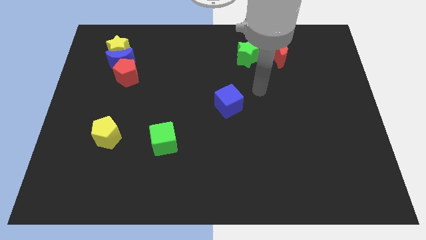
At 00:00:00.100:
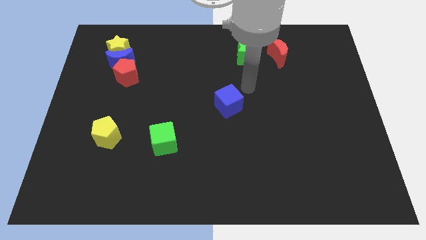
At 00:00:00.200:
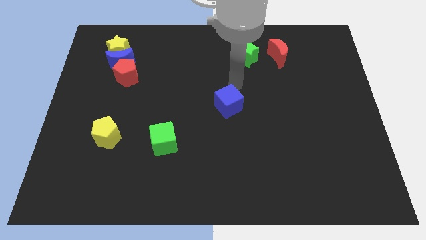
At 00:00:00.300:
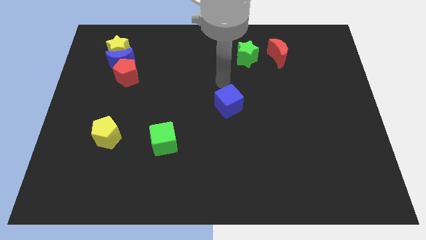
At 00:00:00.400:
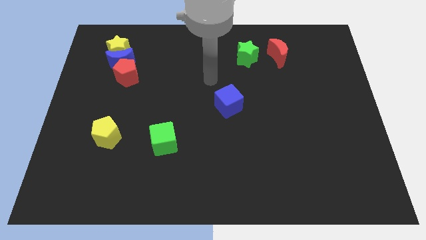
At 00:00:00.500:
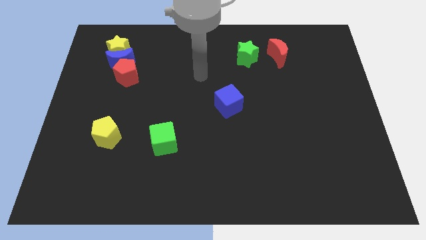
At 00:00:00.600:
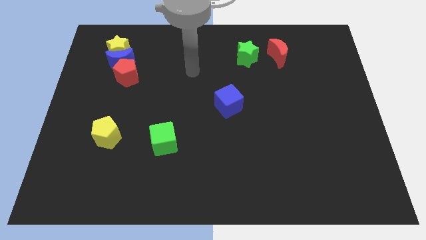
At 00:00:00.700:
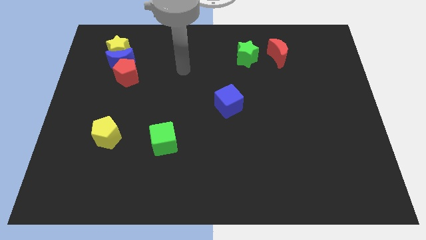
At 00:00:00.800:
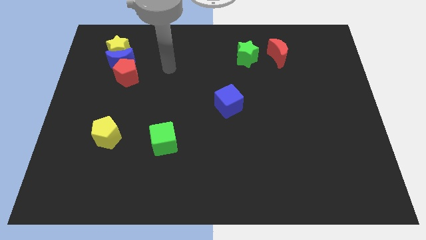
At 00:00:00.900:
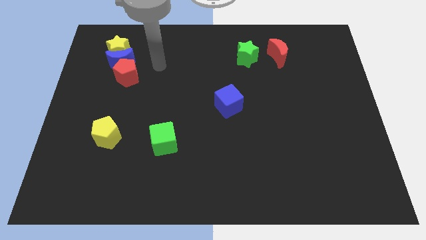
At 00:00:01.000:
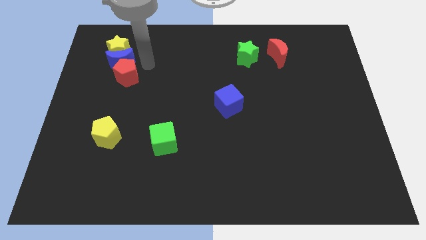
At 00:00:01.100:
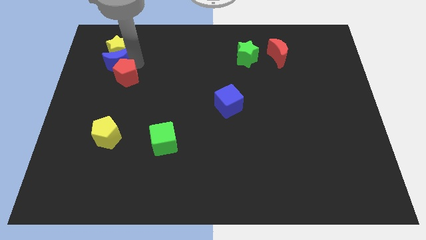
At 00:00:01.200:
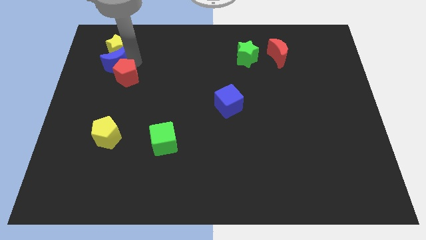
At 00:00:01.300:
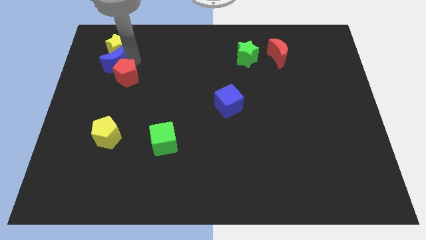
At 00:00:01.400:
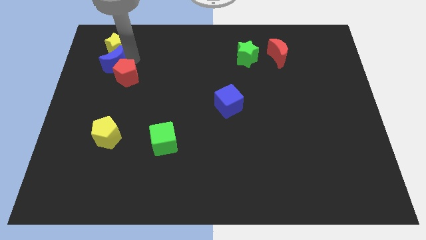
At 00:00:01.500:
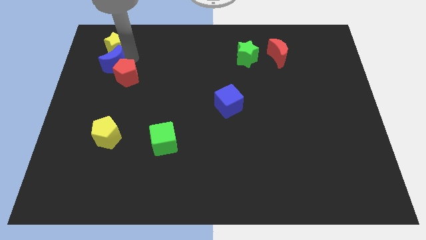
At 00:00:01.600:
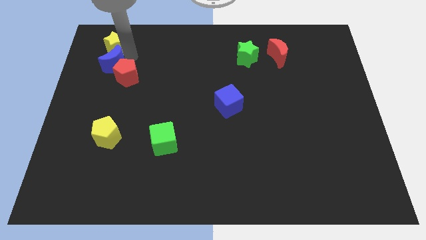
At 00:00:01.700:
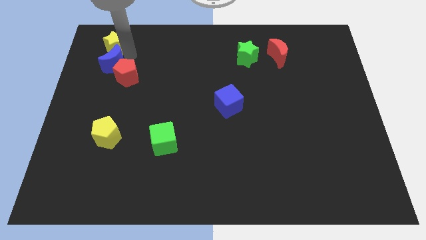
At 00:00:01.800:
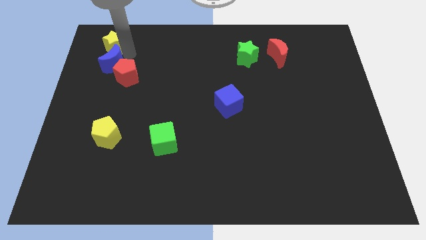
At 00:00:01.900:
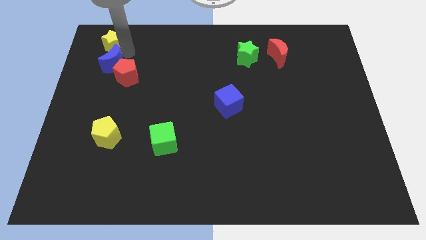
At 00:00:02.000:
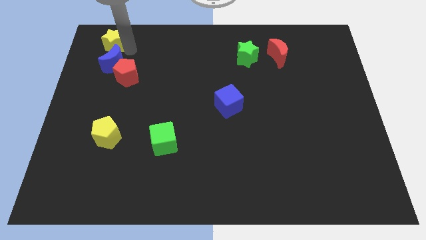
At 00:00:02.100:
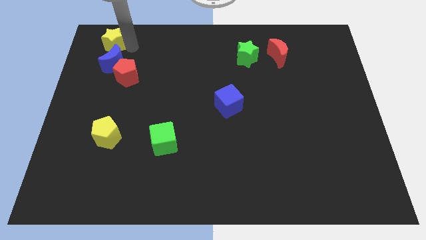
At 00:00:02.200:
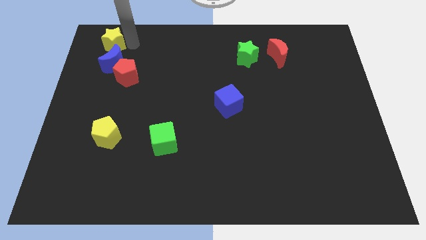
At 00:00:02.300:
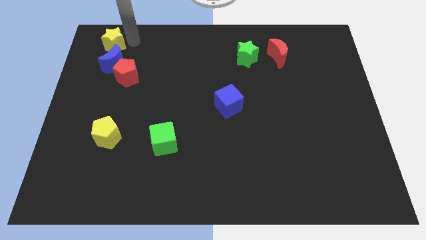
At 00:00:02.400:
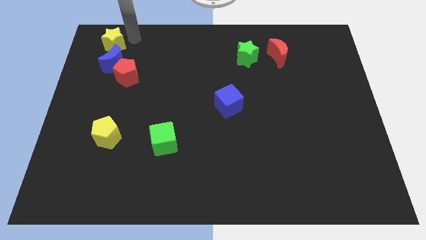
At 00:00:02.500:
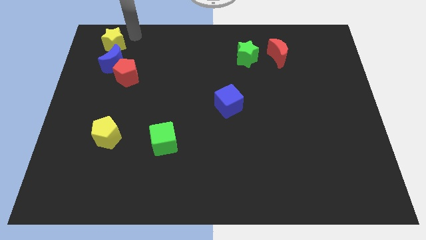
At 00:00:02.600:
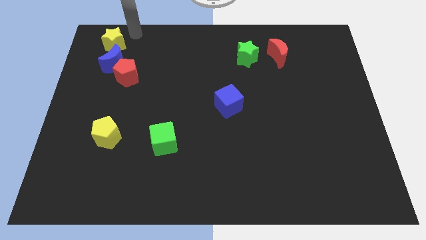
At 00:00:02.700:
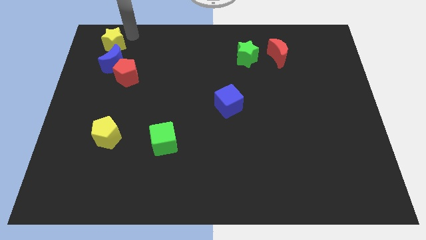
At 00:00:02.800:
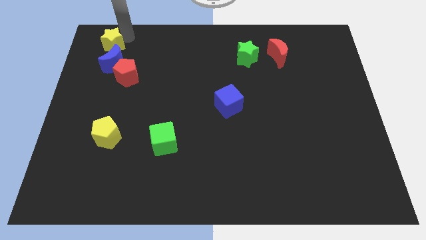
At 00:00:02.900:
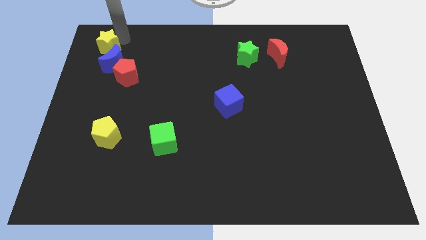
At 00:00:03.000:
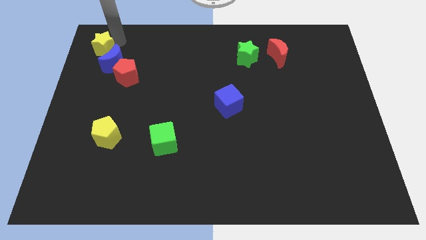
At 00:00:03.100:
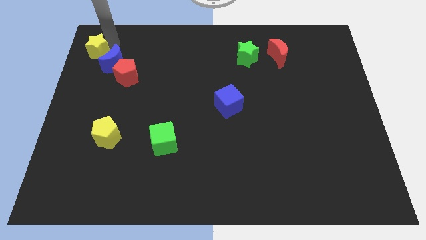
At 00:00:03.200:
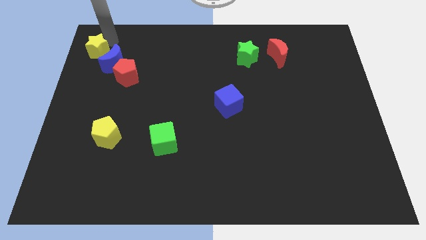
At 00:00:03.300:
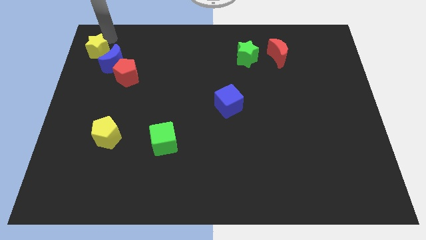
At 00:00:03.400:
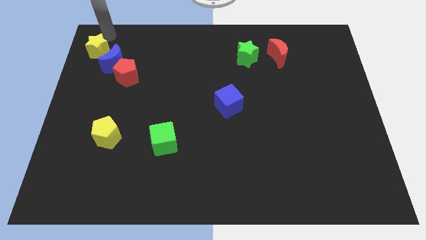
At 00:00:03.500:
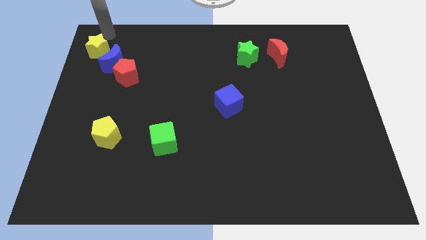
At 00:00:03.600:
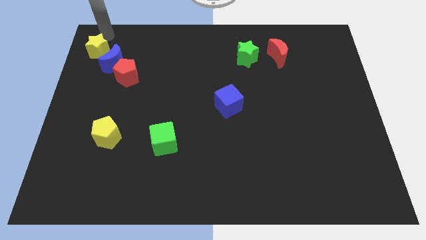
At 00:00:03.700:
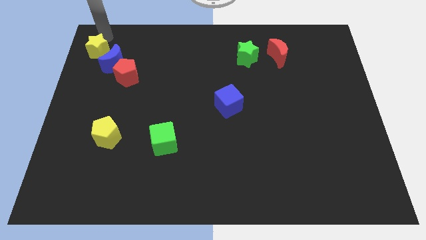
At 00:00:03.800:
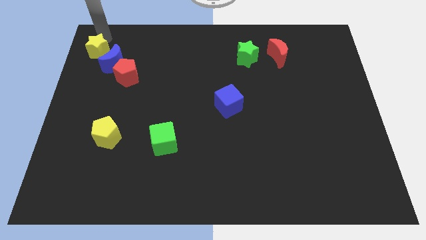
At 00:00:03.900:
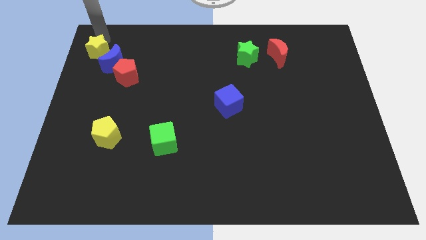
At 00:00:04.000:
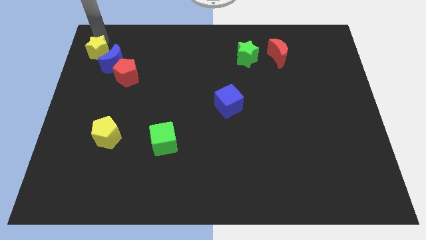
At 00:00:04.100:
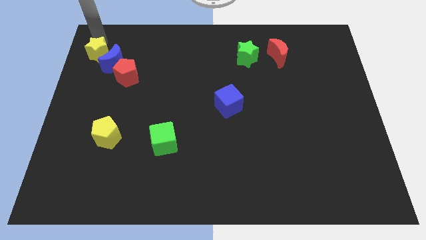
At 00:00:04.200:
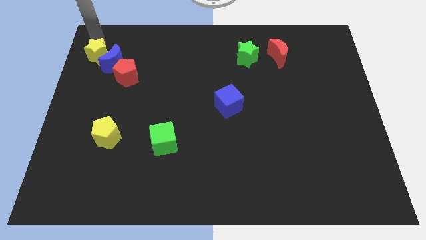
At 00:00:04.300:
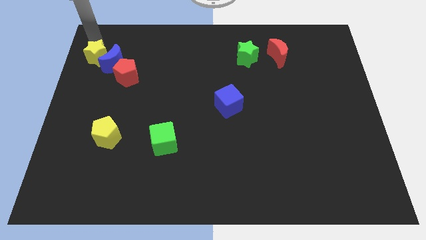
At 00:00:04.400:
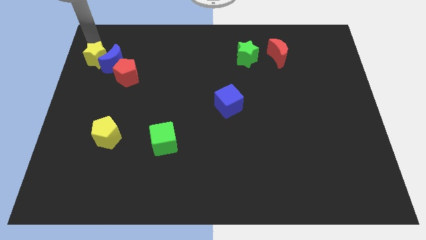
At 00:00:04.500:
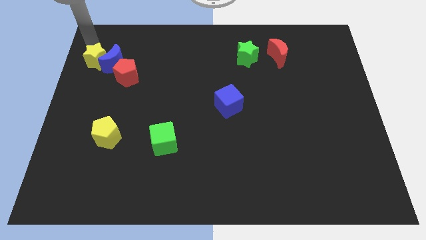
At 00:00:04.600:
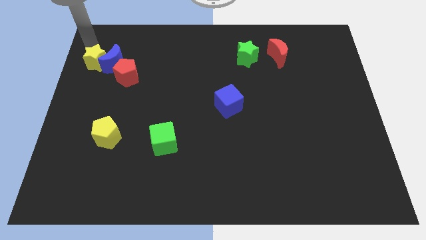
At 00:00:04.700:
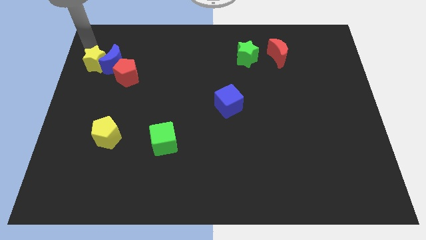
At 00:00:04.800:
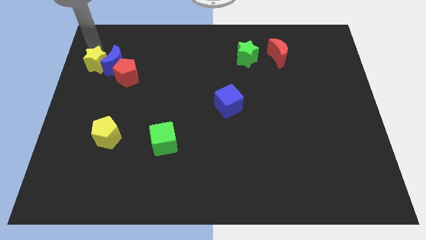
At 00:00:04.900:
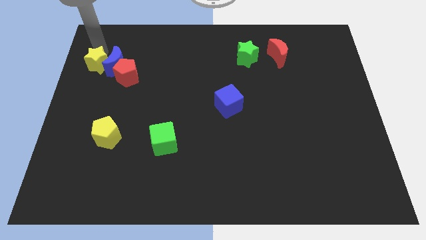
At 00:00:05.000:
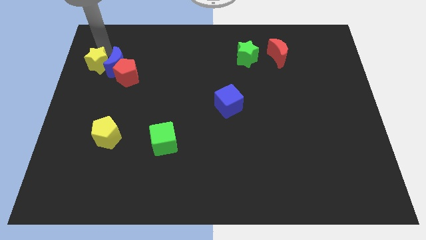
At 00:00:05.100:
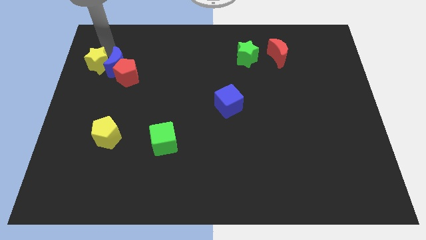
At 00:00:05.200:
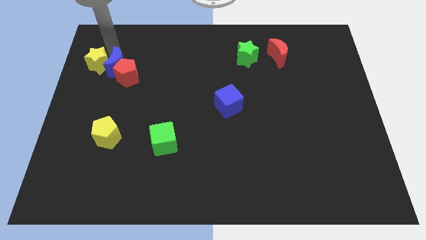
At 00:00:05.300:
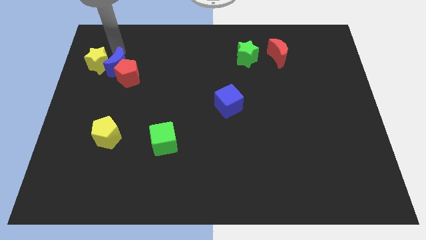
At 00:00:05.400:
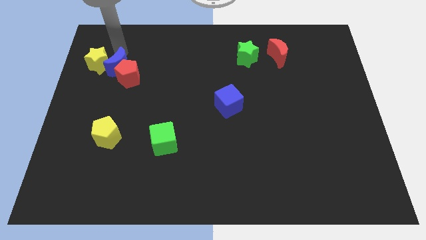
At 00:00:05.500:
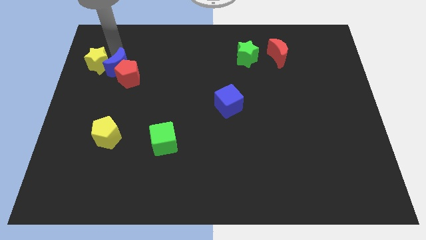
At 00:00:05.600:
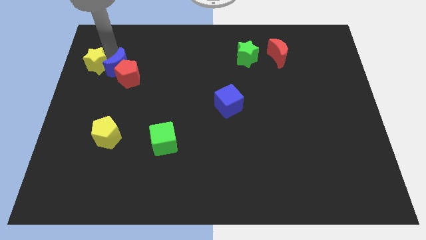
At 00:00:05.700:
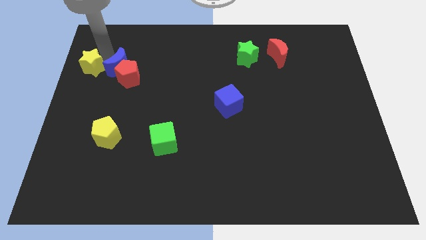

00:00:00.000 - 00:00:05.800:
slide the yellow star to the center left

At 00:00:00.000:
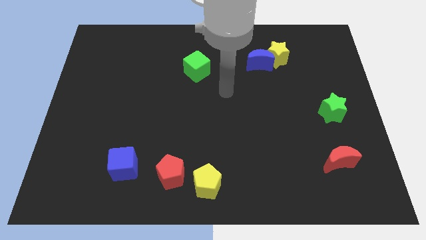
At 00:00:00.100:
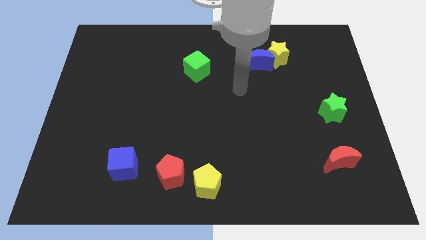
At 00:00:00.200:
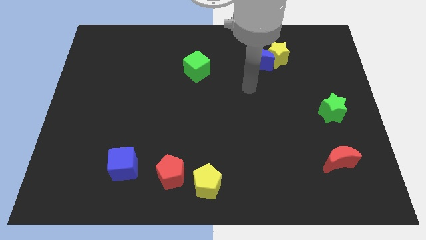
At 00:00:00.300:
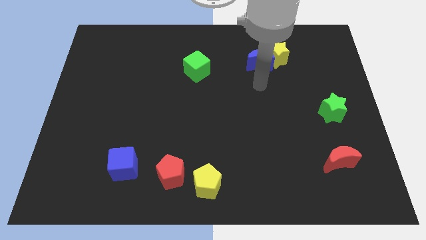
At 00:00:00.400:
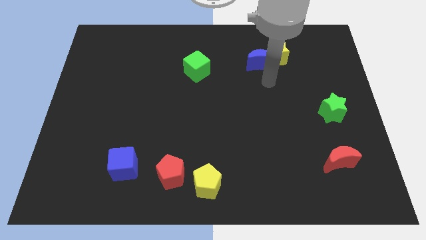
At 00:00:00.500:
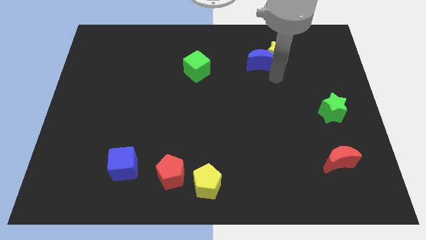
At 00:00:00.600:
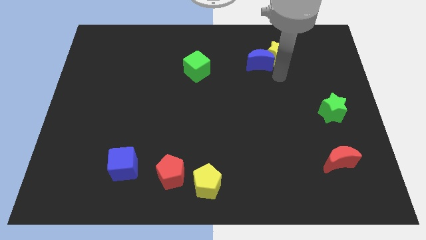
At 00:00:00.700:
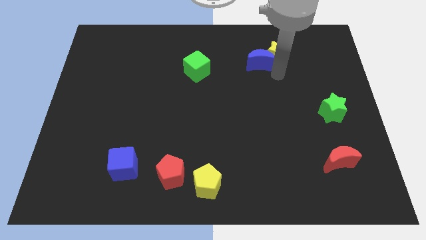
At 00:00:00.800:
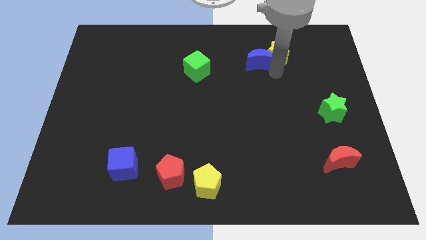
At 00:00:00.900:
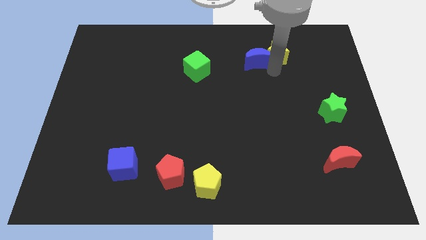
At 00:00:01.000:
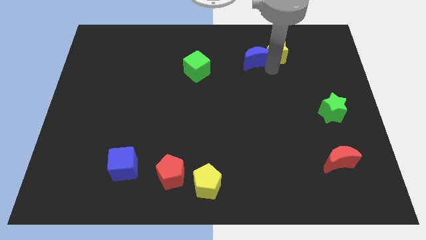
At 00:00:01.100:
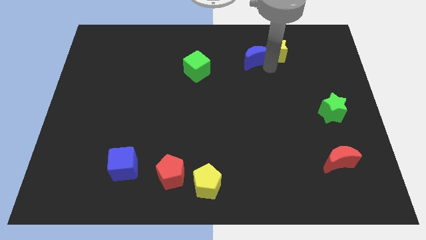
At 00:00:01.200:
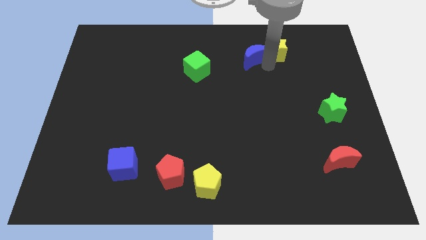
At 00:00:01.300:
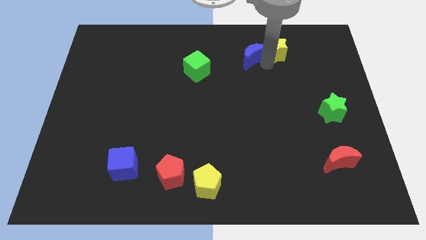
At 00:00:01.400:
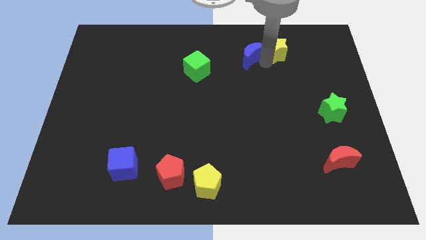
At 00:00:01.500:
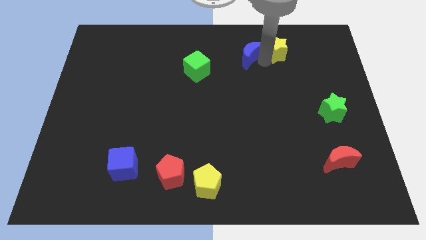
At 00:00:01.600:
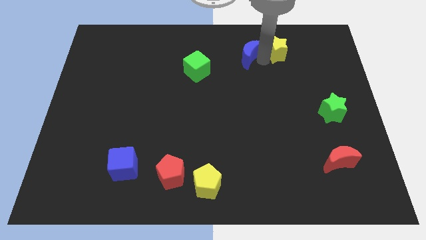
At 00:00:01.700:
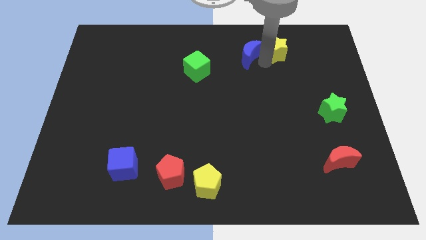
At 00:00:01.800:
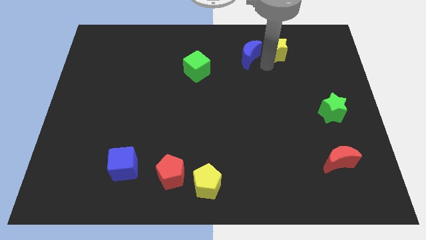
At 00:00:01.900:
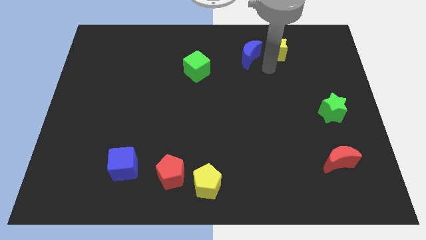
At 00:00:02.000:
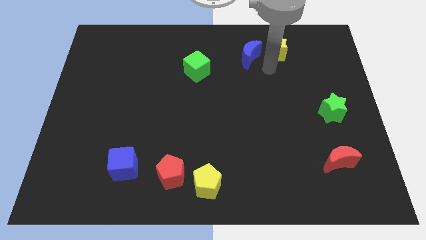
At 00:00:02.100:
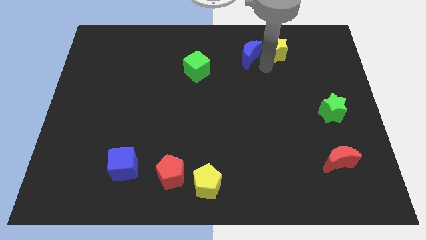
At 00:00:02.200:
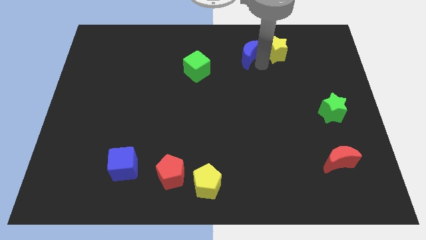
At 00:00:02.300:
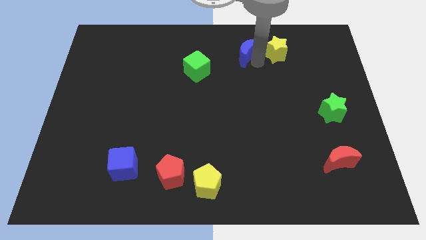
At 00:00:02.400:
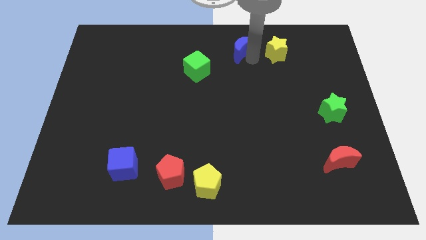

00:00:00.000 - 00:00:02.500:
slide the blue moon to the top side
